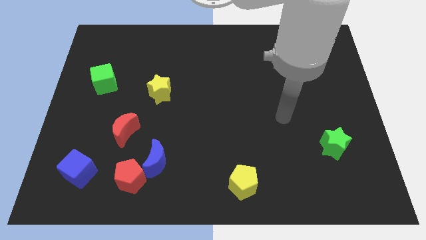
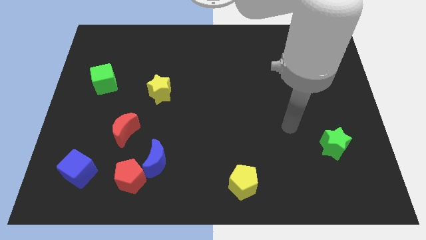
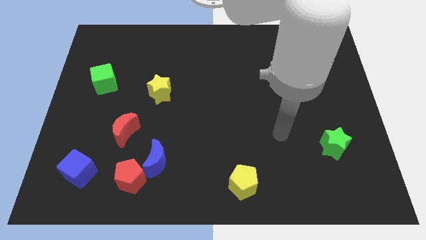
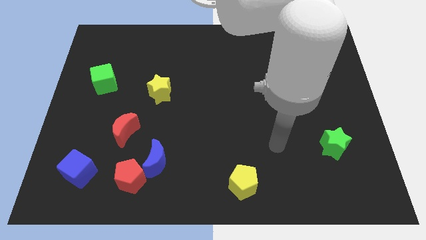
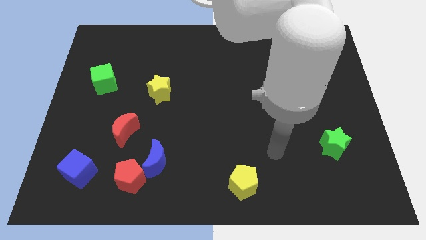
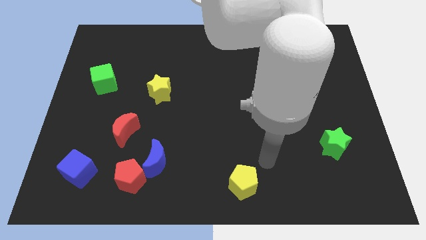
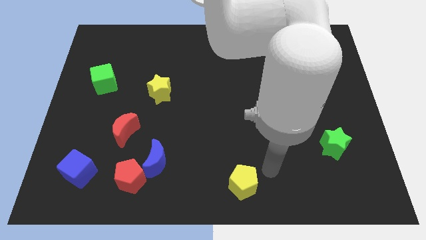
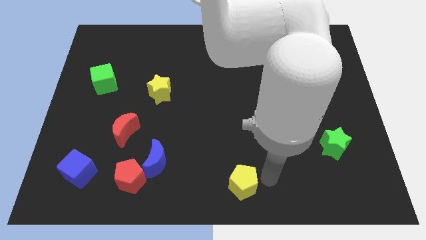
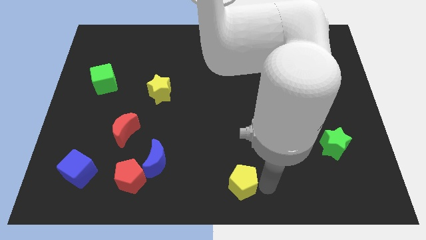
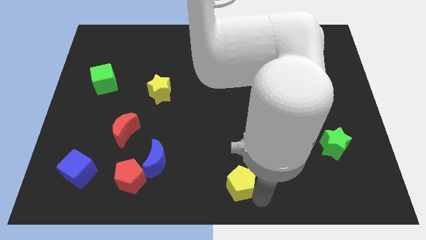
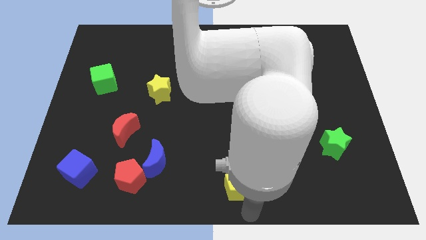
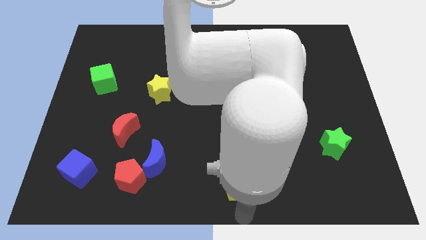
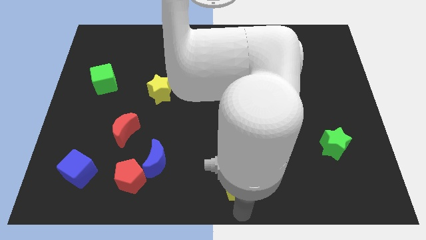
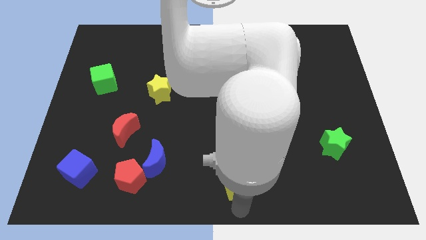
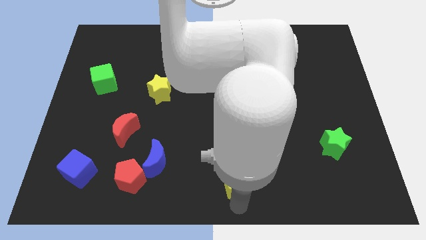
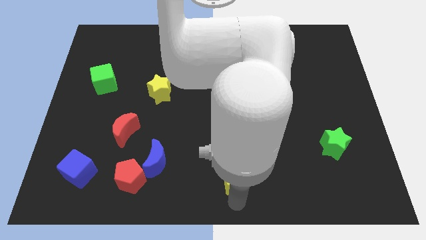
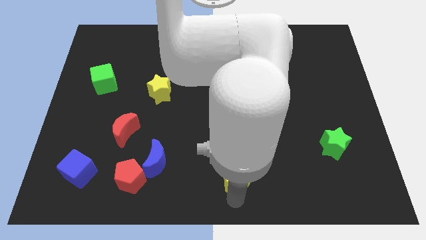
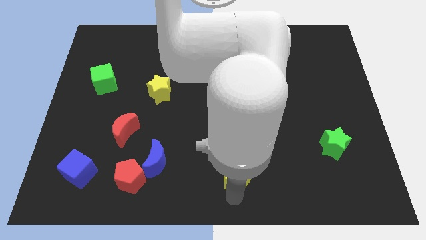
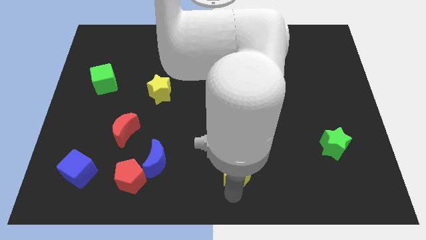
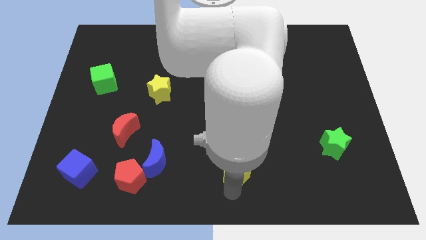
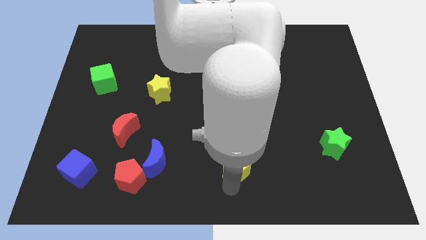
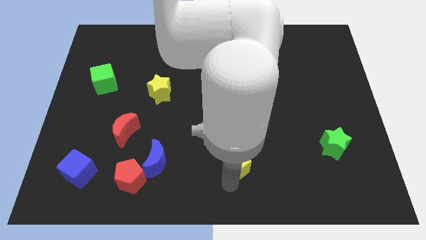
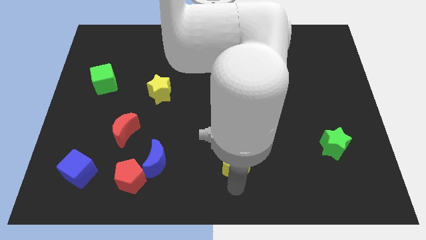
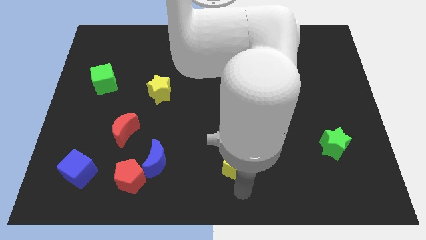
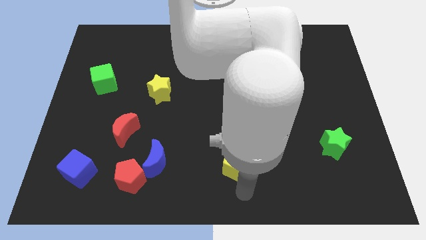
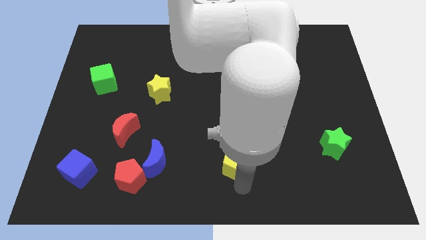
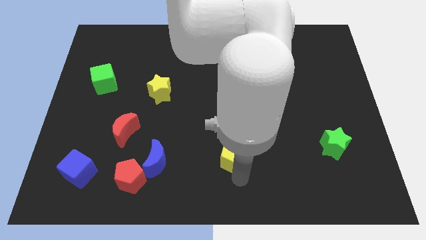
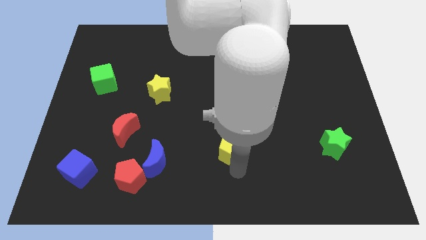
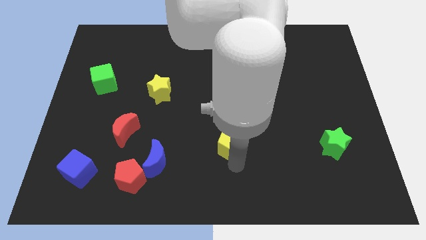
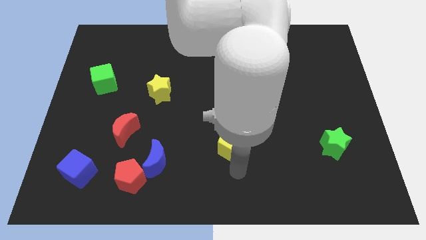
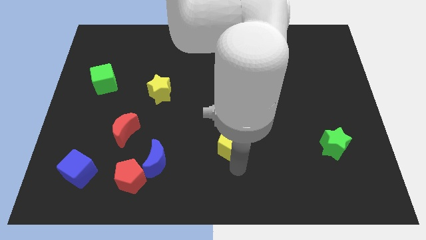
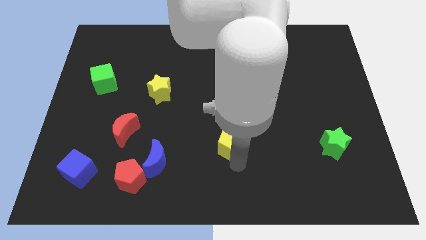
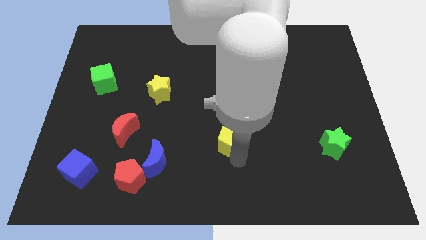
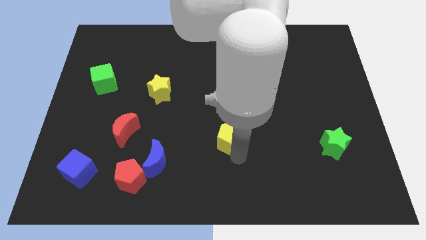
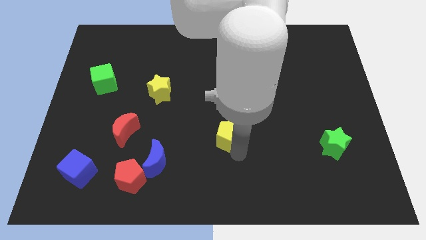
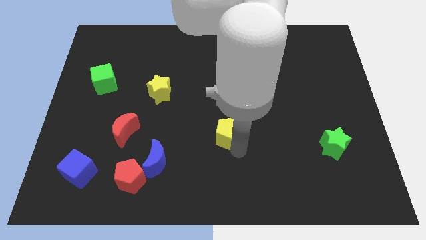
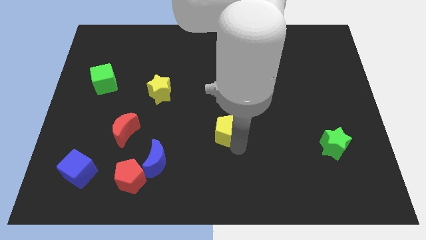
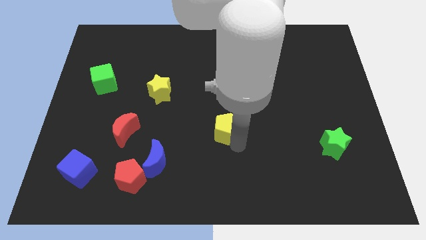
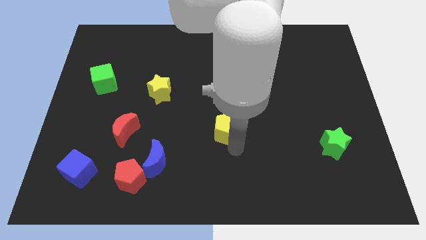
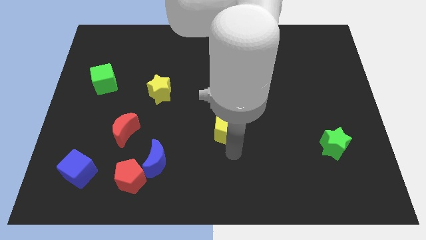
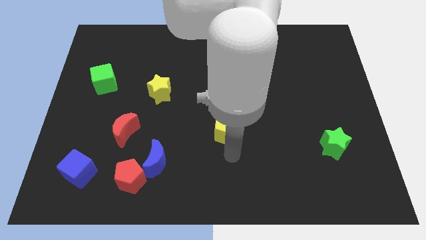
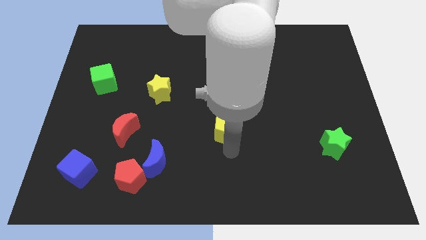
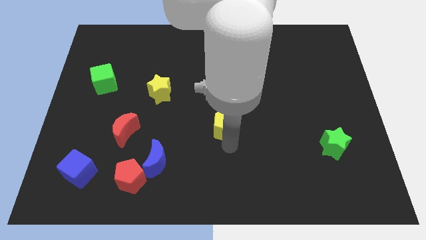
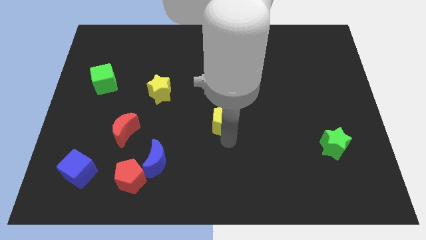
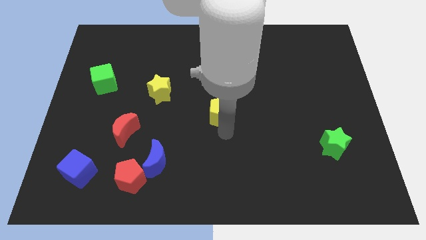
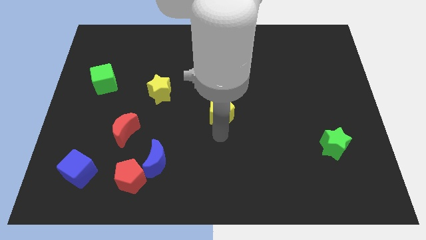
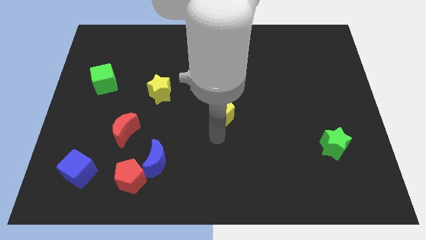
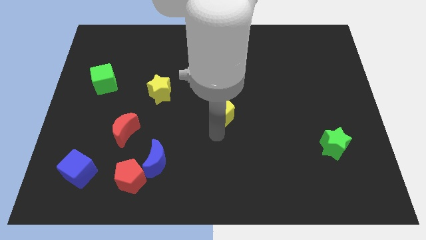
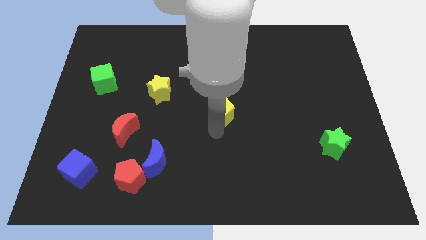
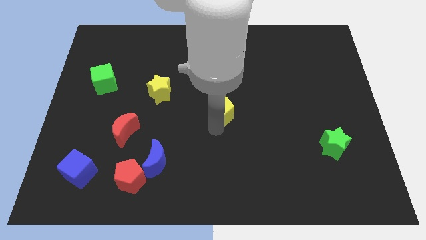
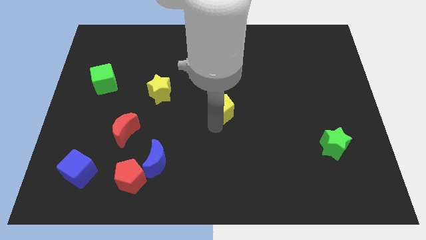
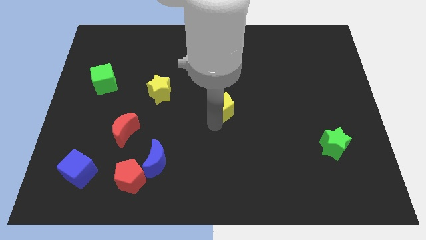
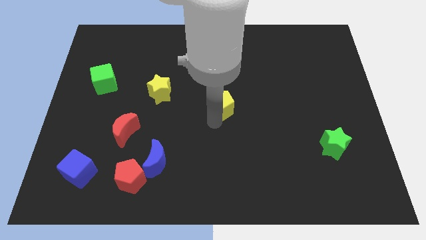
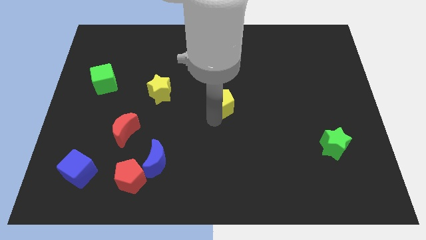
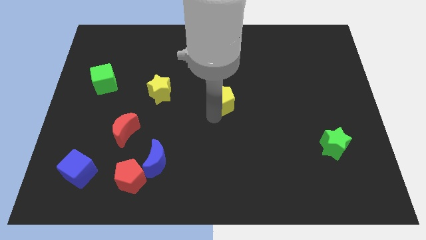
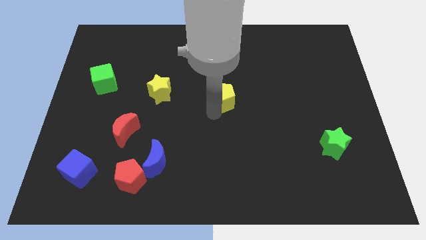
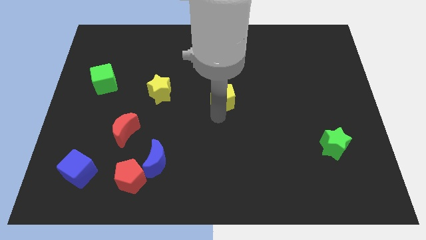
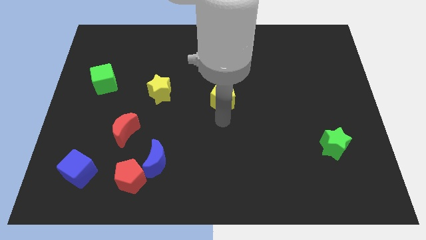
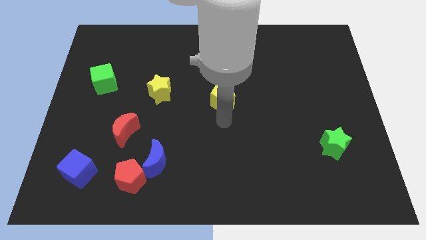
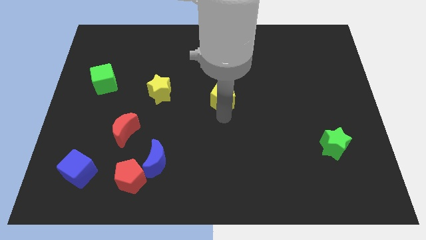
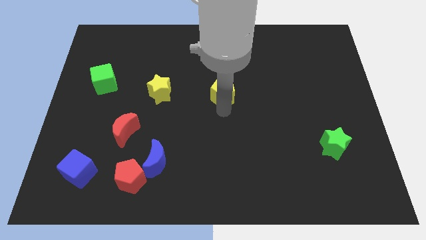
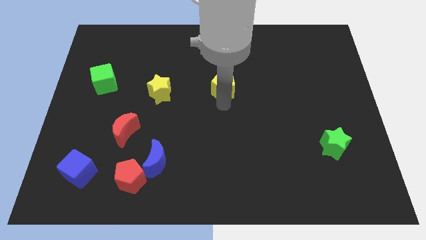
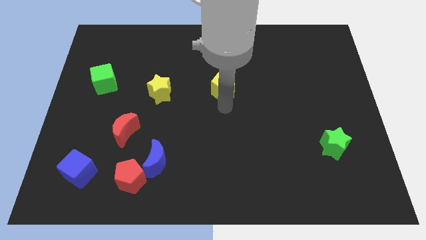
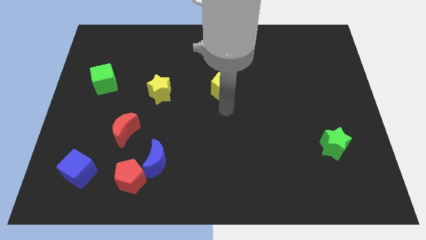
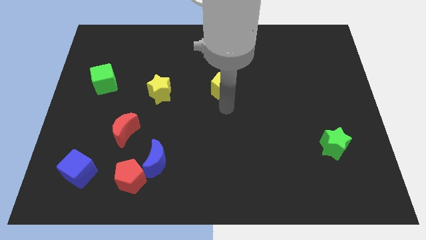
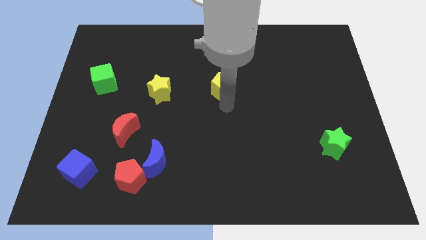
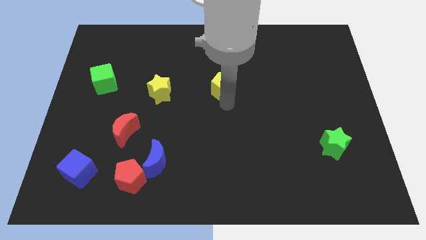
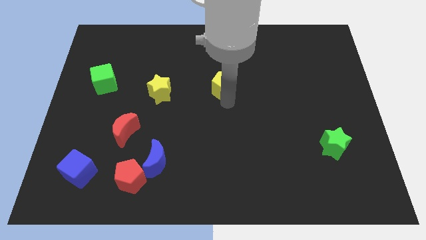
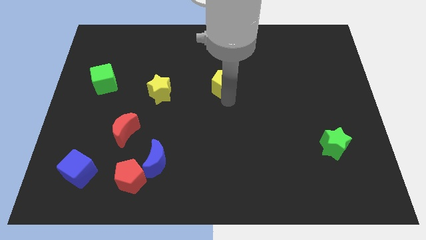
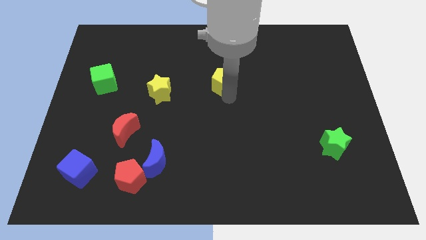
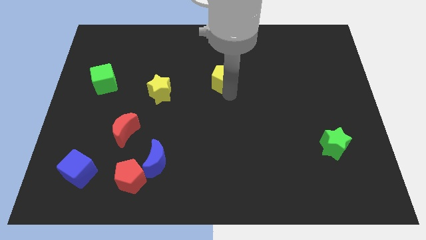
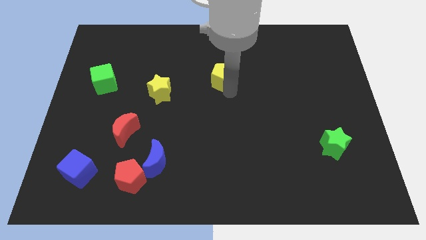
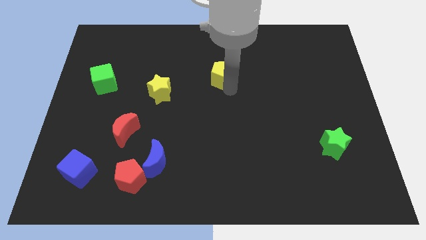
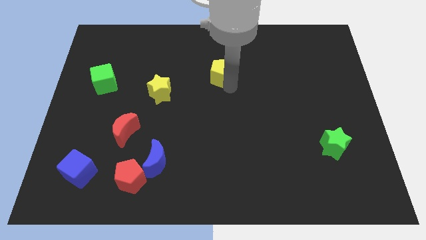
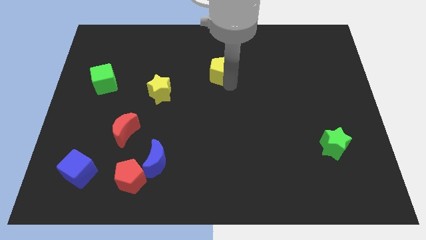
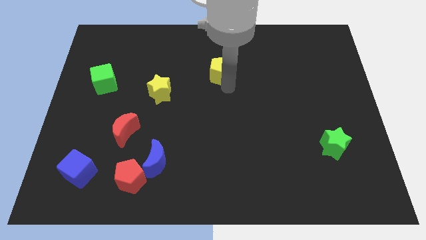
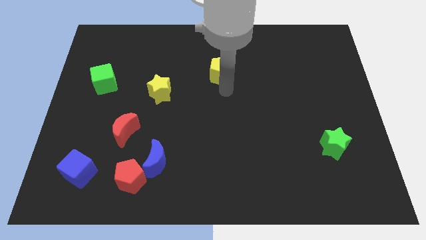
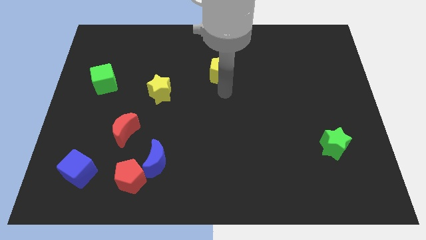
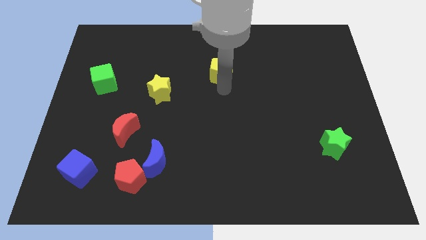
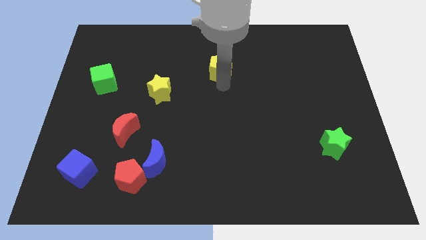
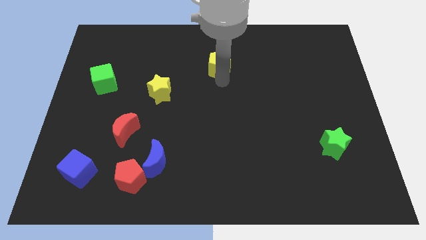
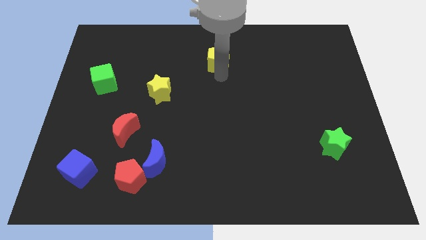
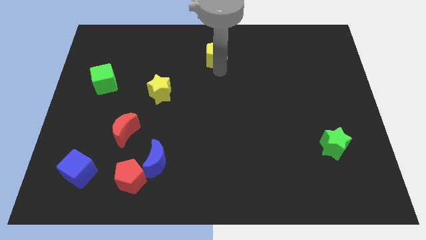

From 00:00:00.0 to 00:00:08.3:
put the yellow pentagon to the top side
